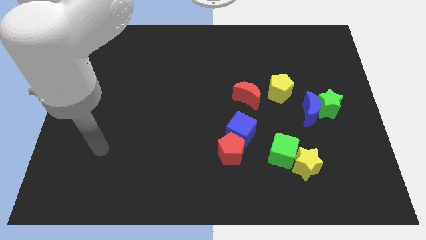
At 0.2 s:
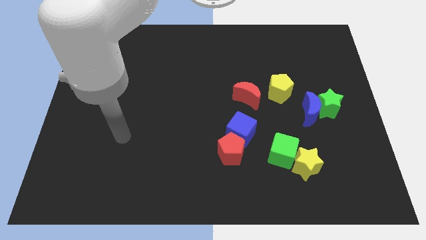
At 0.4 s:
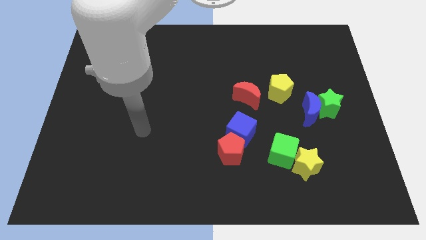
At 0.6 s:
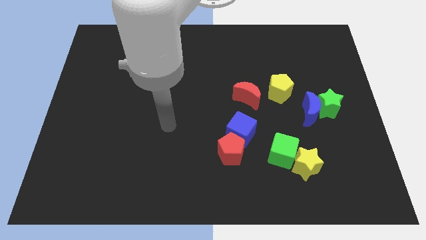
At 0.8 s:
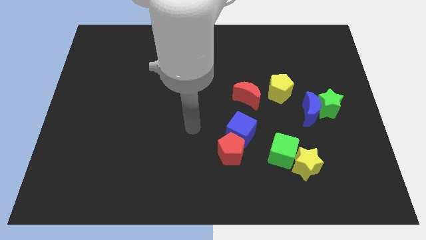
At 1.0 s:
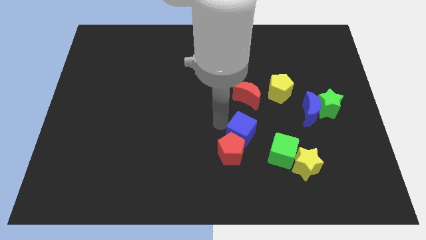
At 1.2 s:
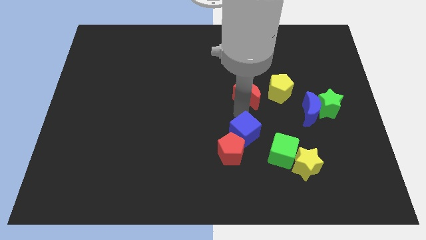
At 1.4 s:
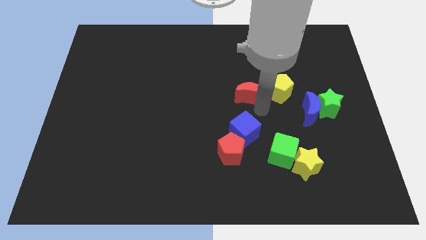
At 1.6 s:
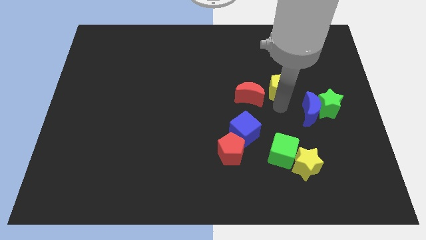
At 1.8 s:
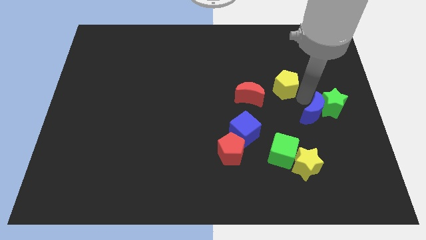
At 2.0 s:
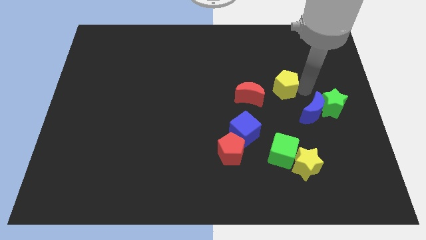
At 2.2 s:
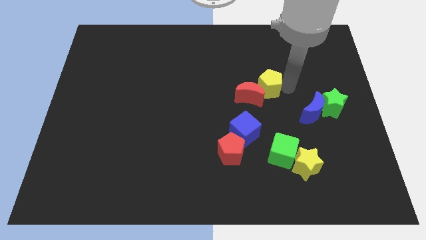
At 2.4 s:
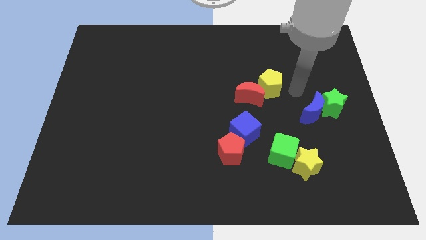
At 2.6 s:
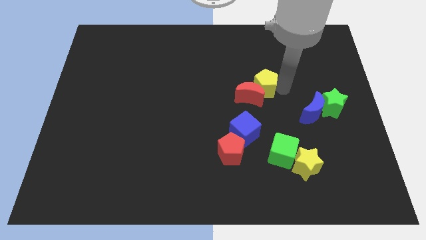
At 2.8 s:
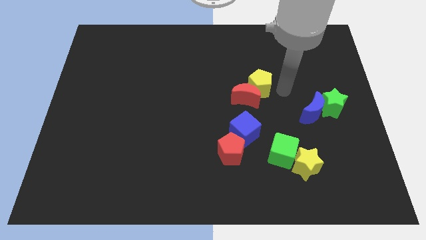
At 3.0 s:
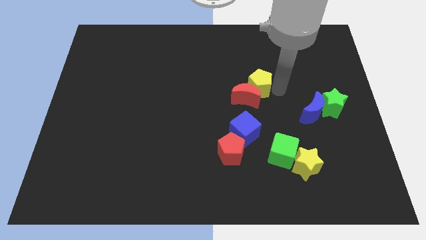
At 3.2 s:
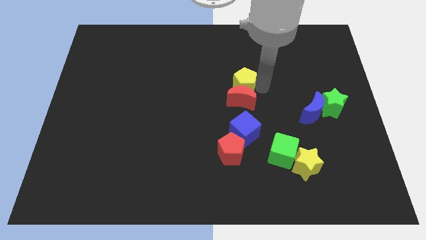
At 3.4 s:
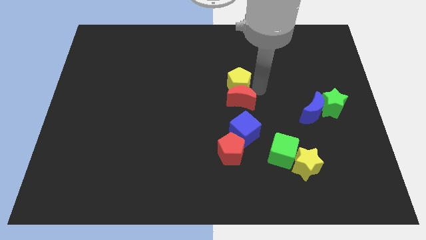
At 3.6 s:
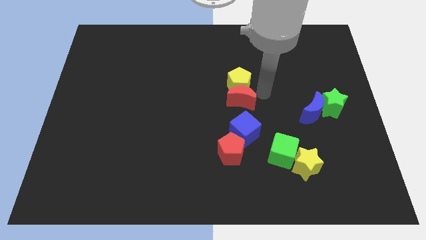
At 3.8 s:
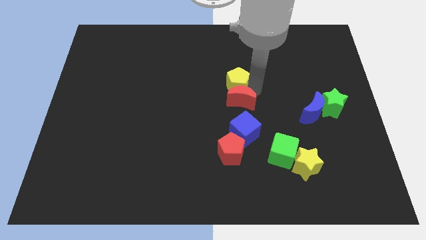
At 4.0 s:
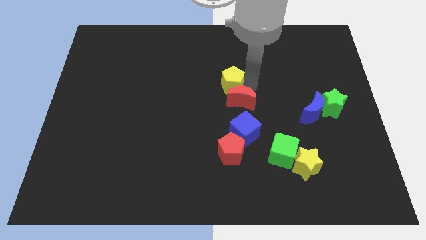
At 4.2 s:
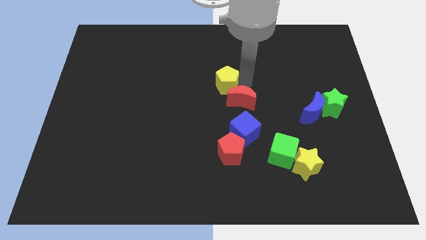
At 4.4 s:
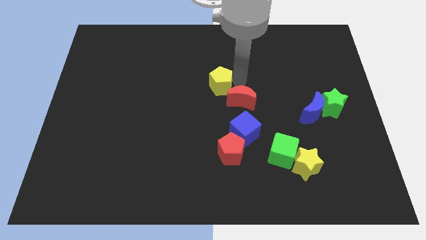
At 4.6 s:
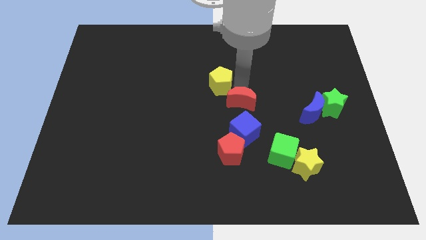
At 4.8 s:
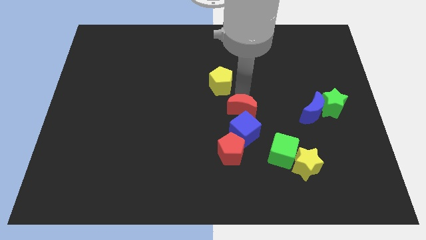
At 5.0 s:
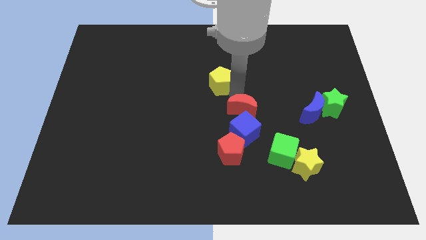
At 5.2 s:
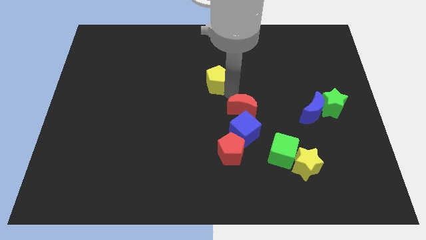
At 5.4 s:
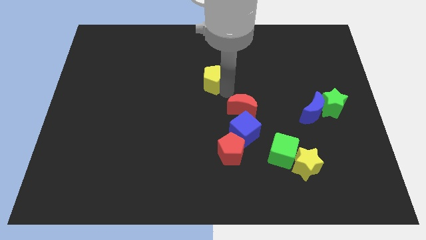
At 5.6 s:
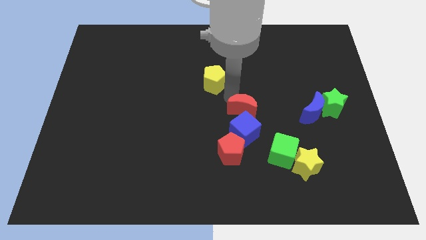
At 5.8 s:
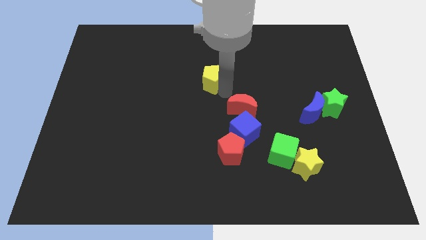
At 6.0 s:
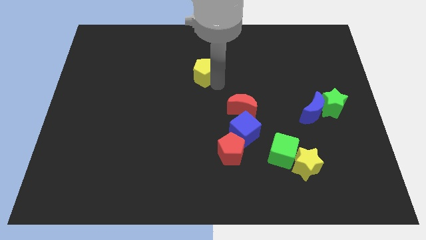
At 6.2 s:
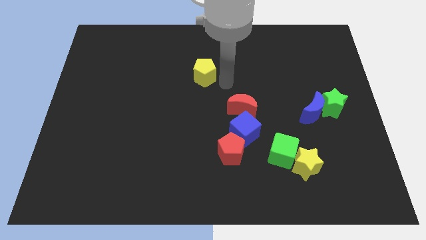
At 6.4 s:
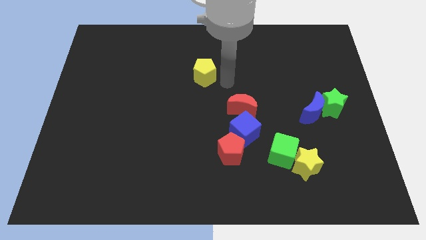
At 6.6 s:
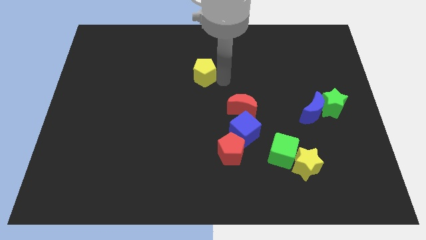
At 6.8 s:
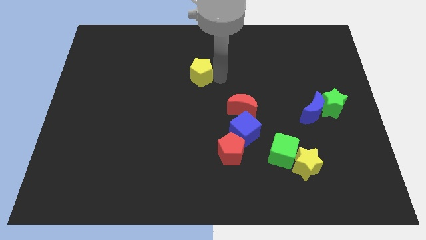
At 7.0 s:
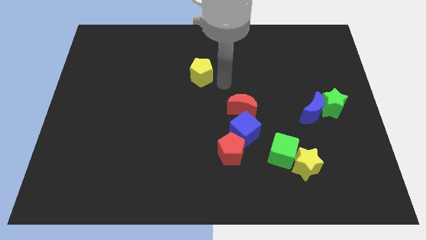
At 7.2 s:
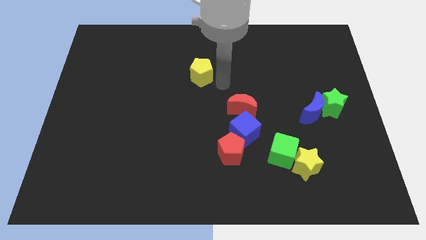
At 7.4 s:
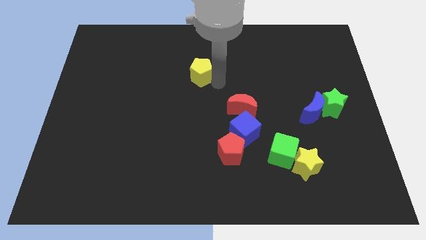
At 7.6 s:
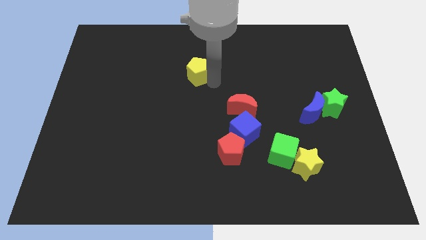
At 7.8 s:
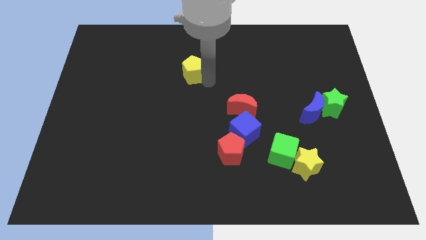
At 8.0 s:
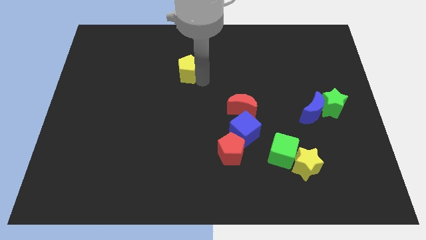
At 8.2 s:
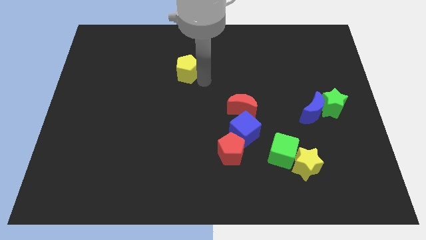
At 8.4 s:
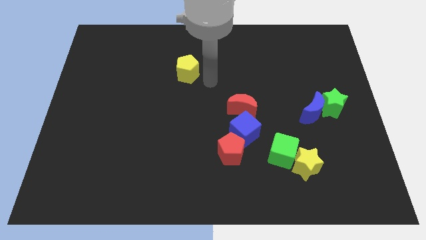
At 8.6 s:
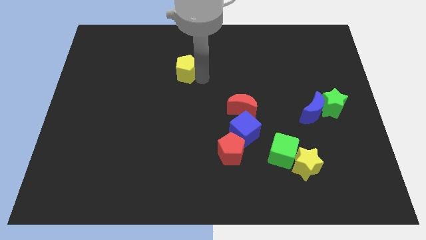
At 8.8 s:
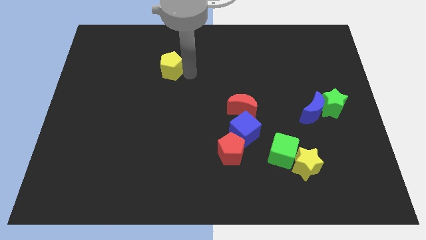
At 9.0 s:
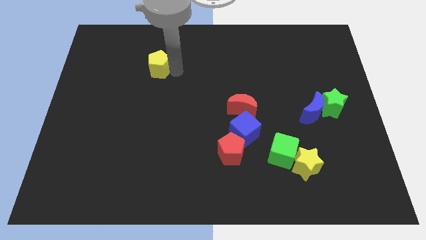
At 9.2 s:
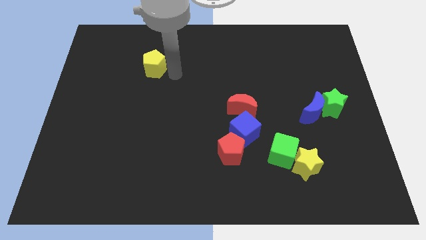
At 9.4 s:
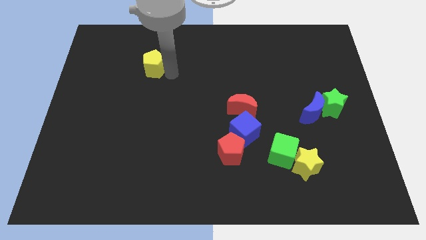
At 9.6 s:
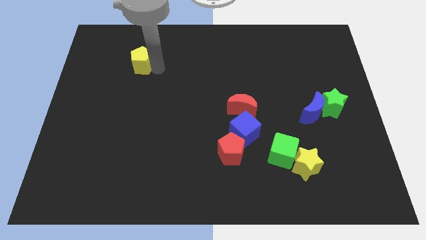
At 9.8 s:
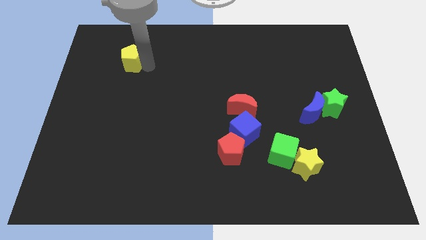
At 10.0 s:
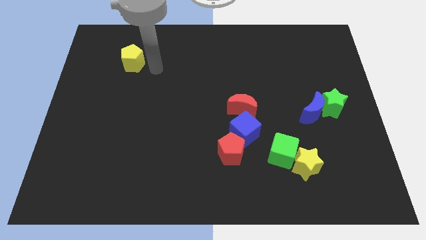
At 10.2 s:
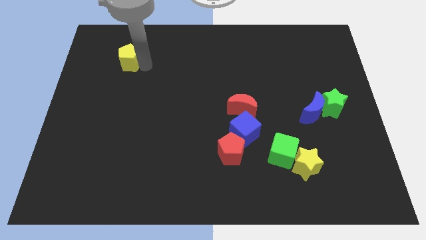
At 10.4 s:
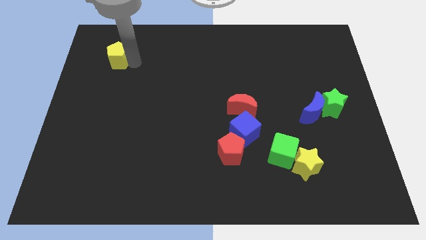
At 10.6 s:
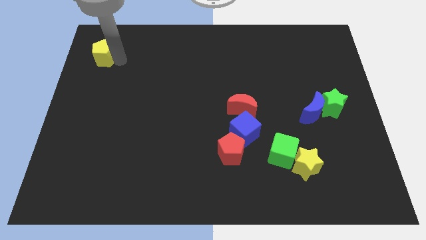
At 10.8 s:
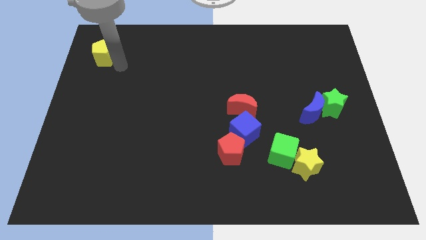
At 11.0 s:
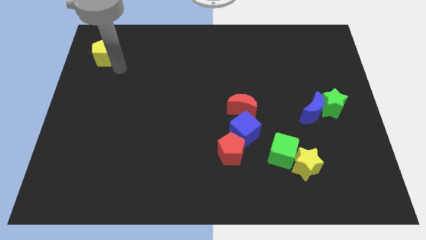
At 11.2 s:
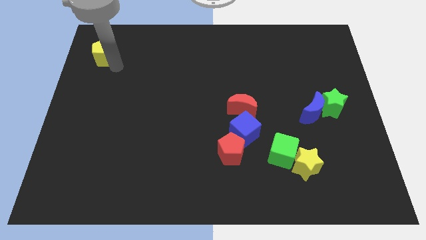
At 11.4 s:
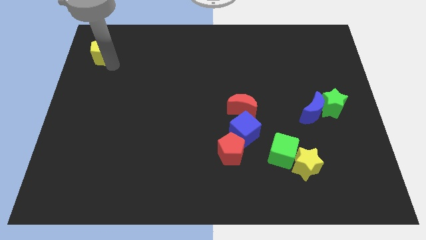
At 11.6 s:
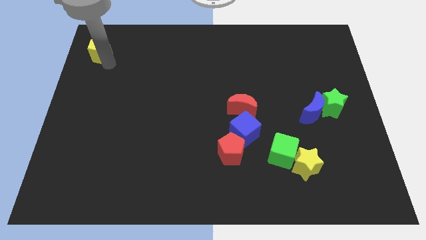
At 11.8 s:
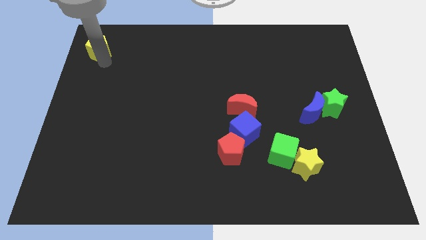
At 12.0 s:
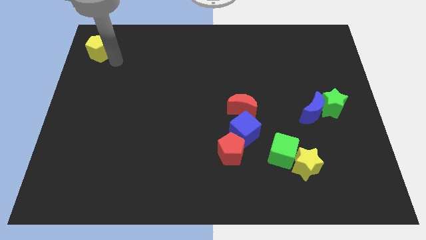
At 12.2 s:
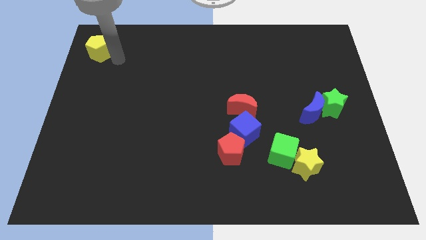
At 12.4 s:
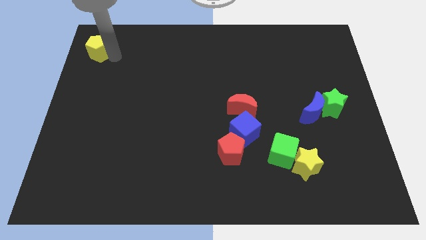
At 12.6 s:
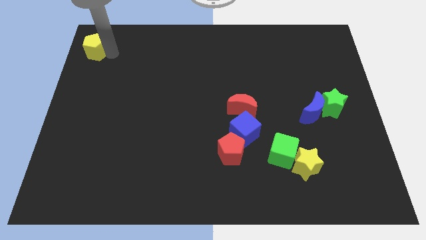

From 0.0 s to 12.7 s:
put the yellow pentagon to the top left corner

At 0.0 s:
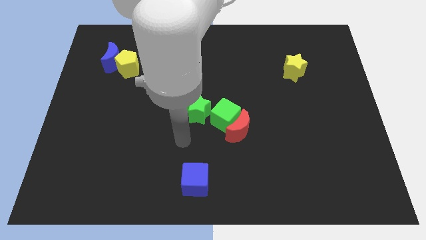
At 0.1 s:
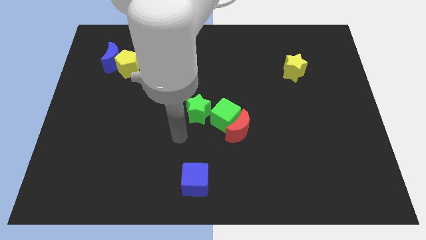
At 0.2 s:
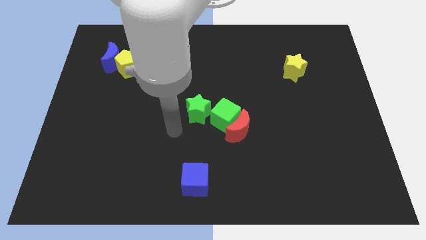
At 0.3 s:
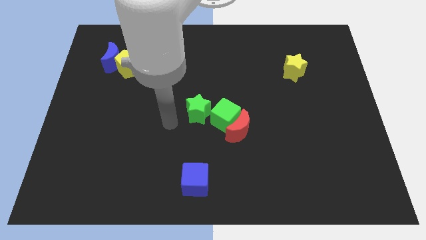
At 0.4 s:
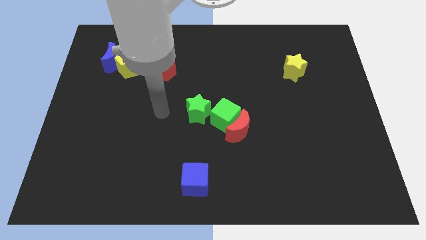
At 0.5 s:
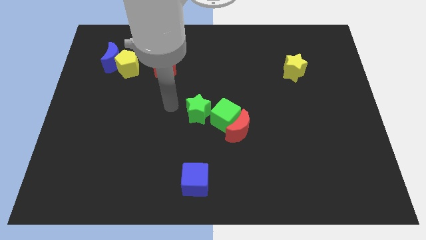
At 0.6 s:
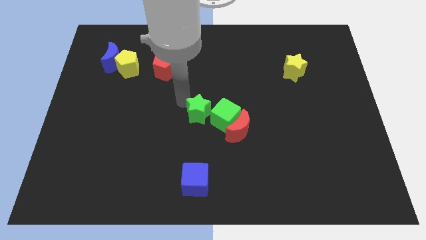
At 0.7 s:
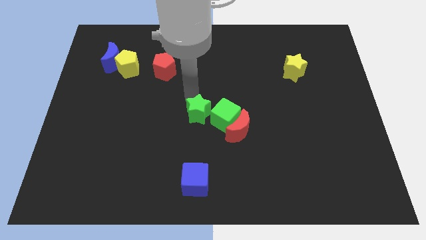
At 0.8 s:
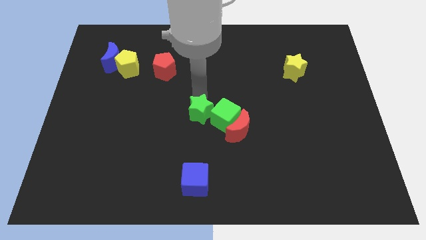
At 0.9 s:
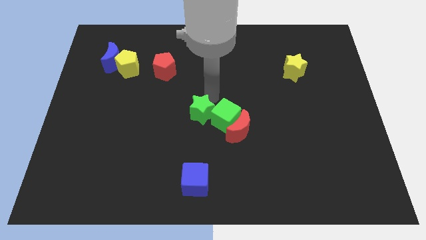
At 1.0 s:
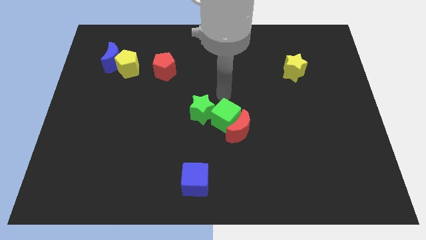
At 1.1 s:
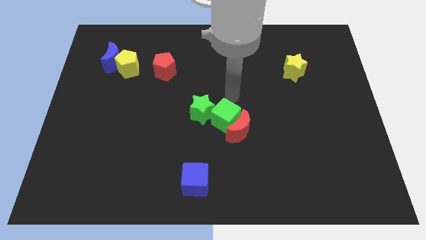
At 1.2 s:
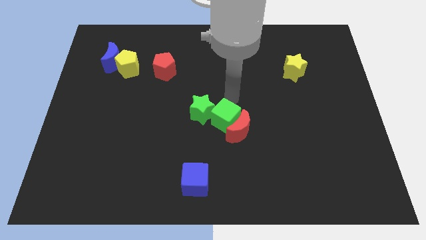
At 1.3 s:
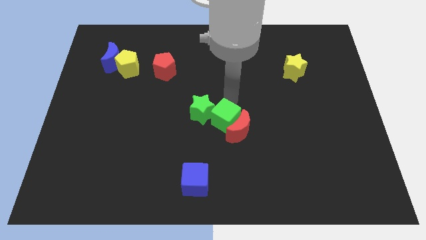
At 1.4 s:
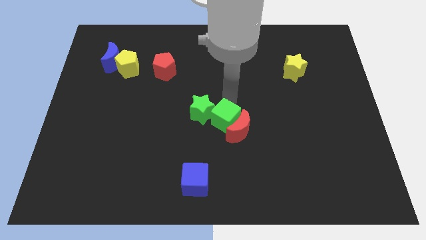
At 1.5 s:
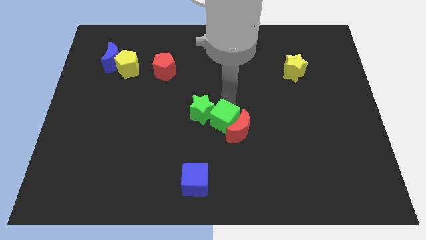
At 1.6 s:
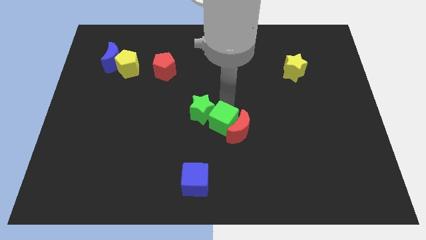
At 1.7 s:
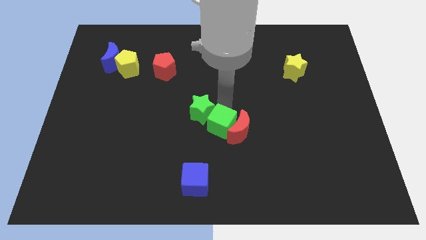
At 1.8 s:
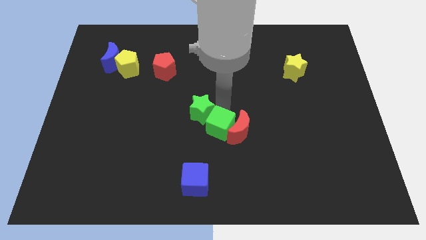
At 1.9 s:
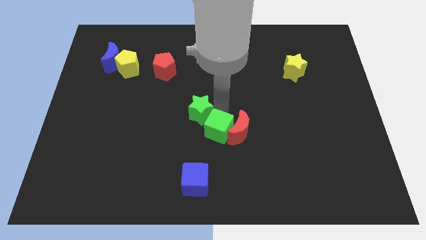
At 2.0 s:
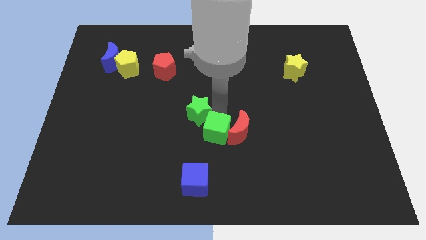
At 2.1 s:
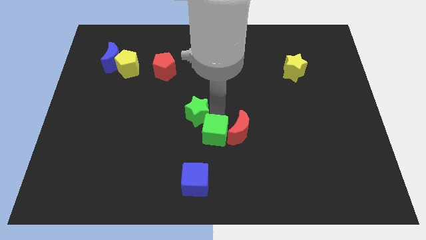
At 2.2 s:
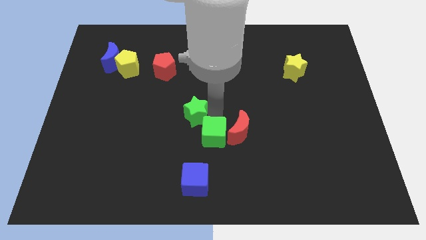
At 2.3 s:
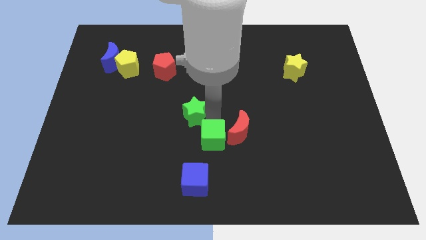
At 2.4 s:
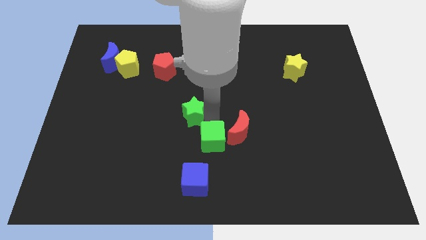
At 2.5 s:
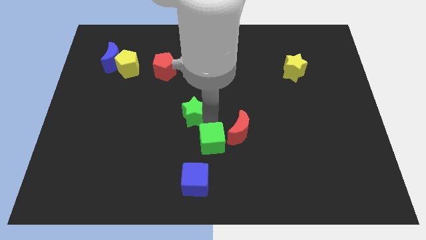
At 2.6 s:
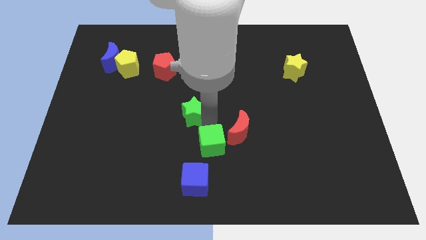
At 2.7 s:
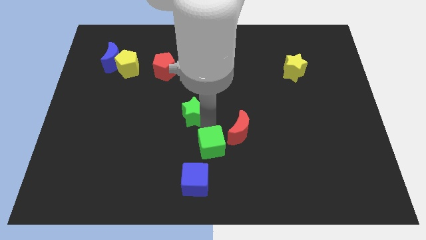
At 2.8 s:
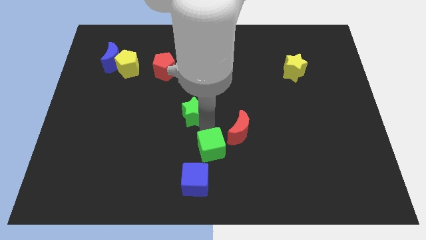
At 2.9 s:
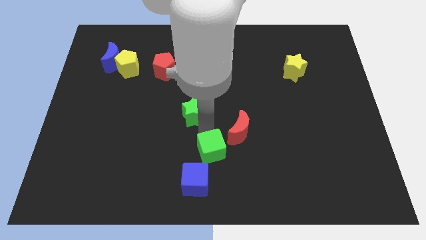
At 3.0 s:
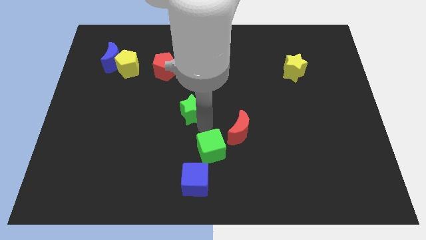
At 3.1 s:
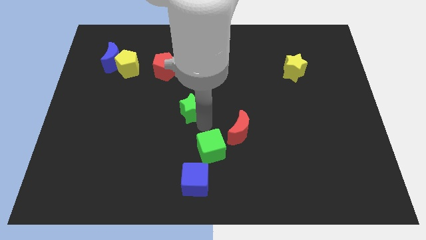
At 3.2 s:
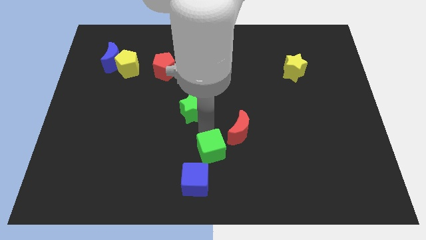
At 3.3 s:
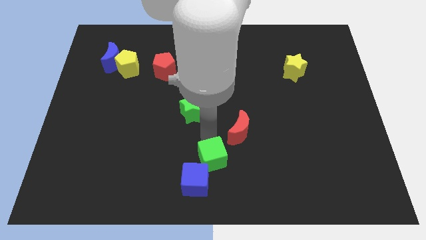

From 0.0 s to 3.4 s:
move the green cube to the bottom side
